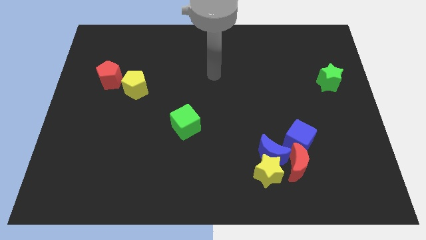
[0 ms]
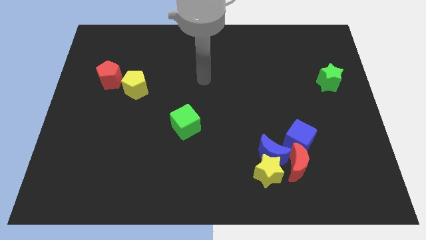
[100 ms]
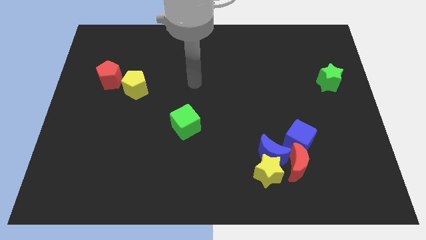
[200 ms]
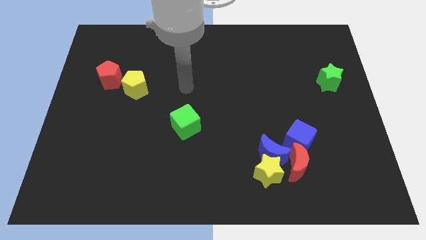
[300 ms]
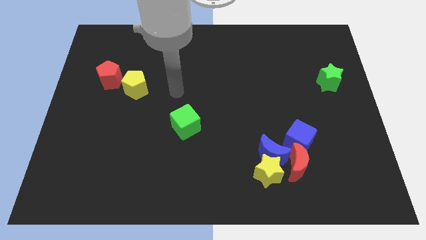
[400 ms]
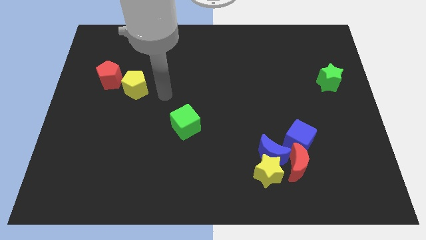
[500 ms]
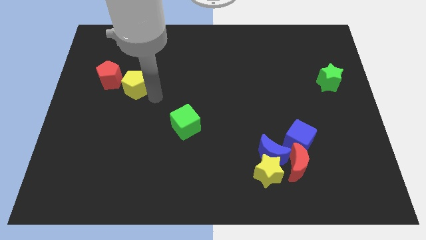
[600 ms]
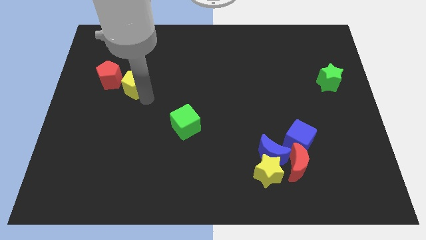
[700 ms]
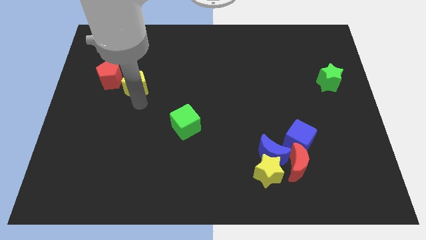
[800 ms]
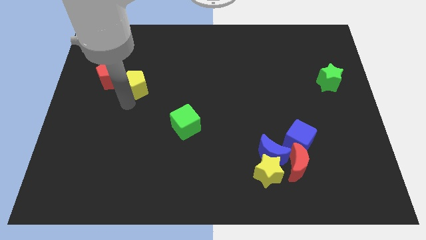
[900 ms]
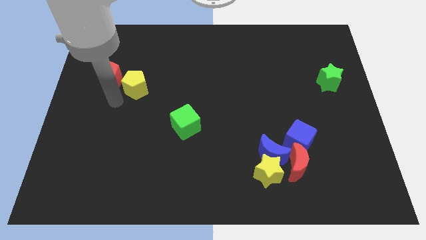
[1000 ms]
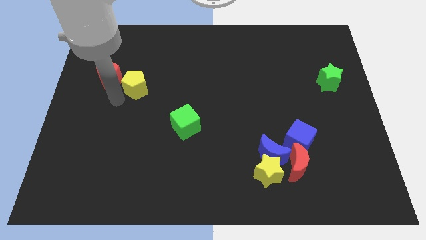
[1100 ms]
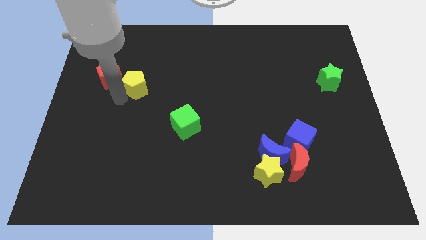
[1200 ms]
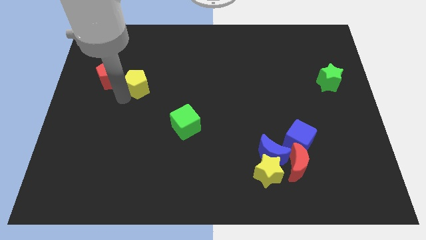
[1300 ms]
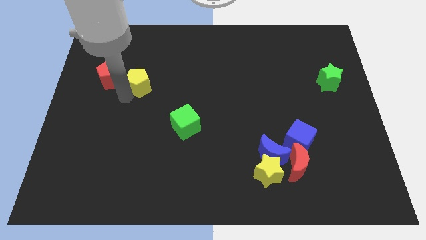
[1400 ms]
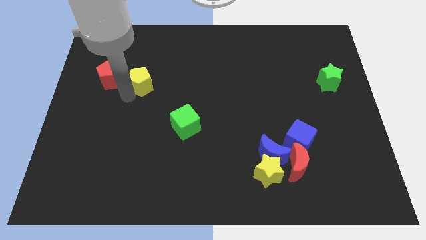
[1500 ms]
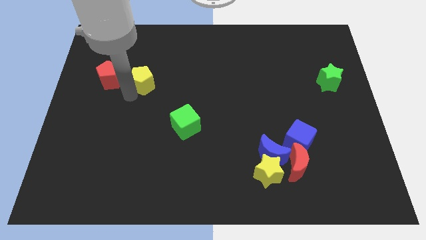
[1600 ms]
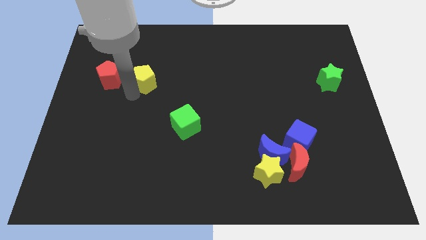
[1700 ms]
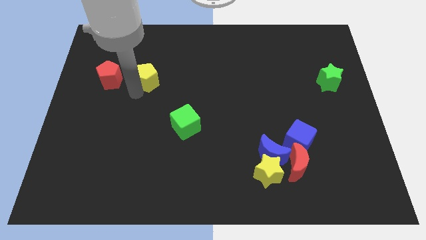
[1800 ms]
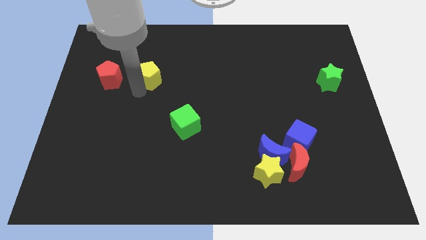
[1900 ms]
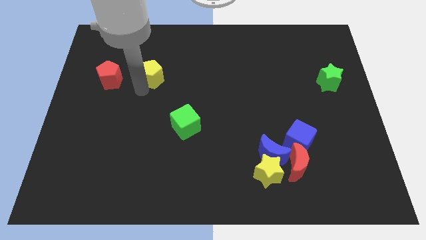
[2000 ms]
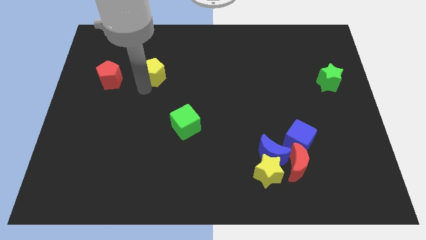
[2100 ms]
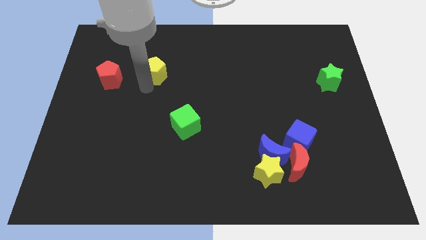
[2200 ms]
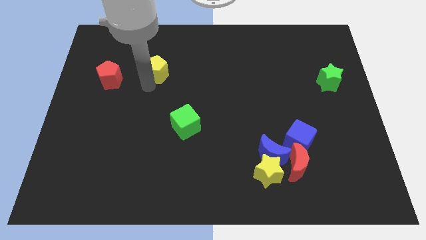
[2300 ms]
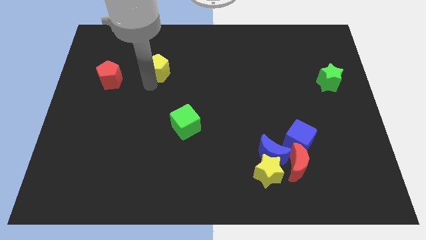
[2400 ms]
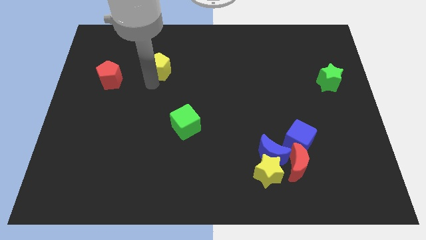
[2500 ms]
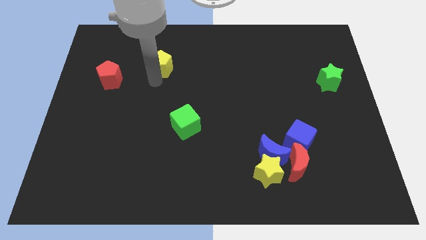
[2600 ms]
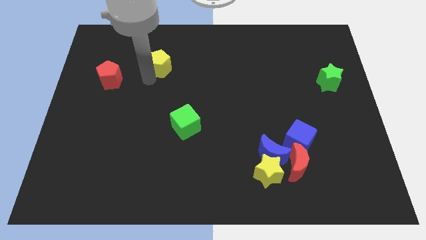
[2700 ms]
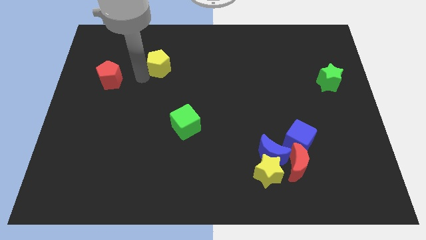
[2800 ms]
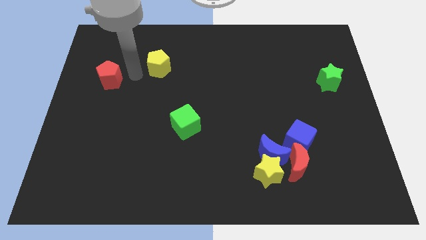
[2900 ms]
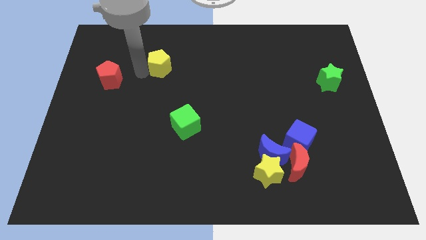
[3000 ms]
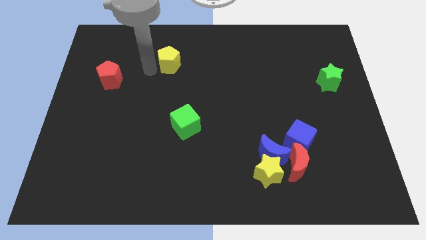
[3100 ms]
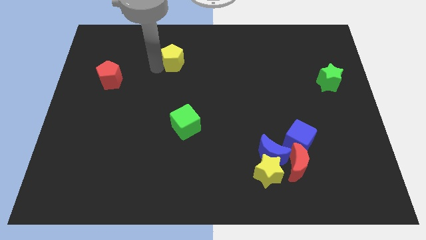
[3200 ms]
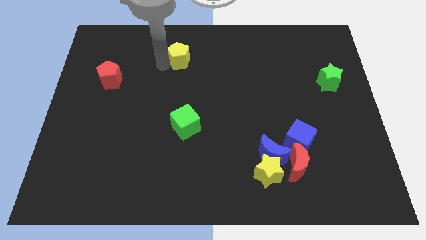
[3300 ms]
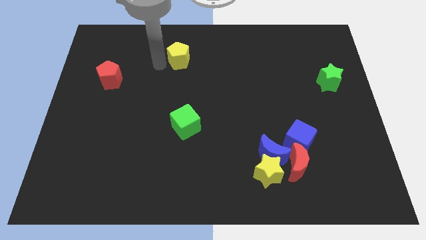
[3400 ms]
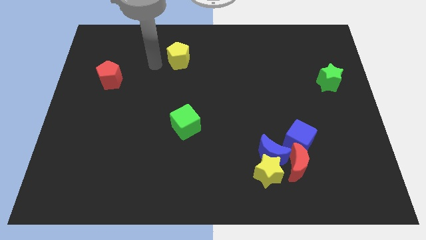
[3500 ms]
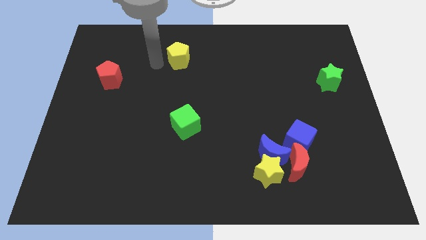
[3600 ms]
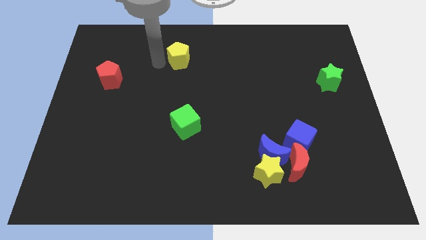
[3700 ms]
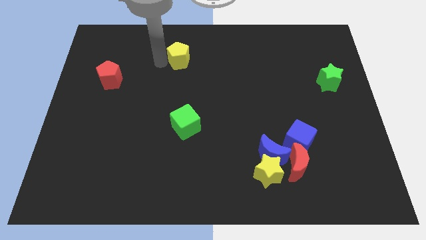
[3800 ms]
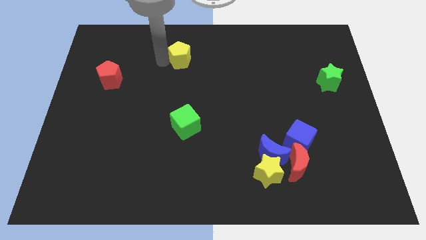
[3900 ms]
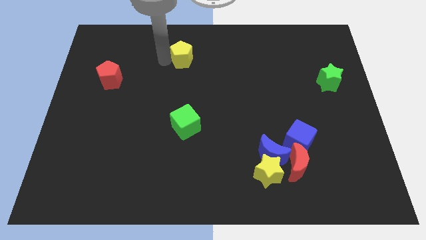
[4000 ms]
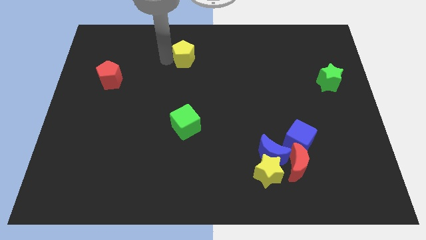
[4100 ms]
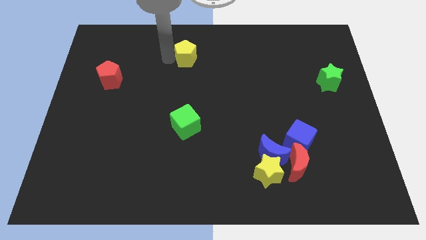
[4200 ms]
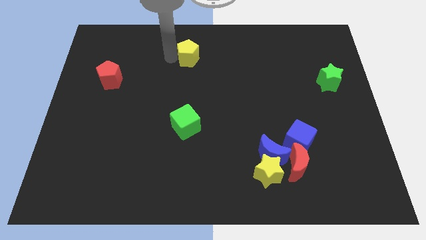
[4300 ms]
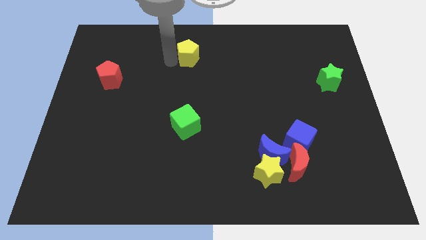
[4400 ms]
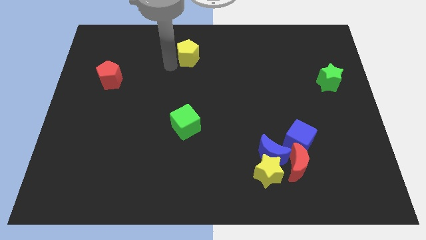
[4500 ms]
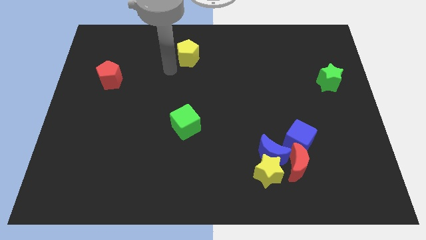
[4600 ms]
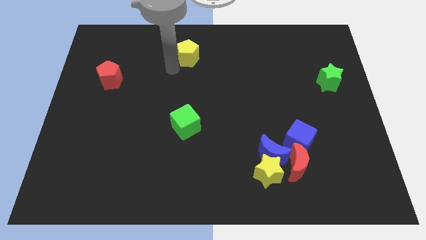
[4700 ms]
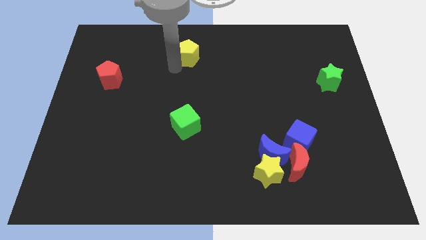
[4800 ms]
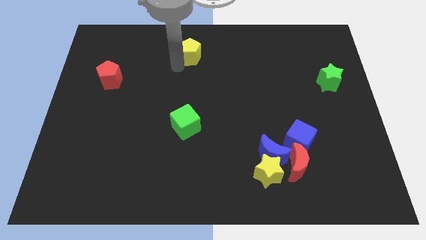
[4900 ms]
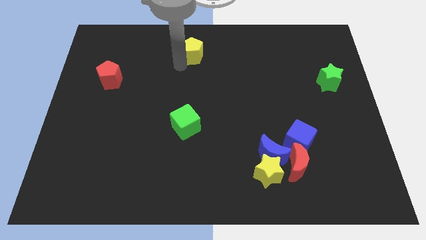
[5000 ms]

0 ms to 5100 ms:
slide the yellow pentagon to the top

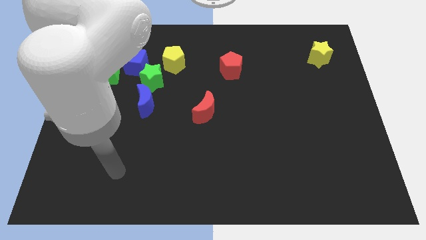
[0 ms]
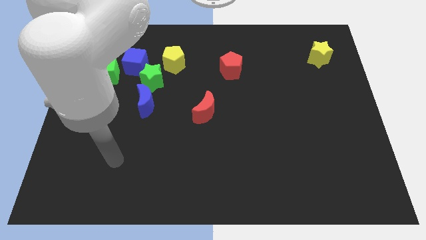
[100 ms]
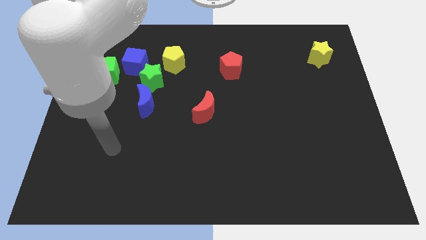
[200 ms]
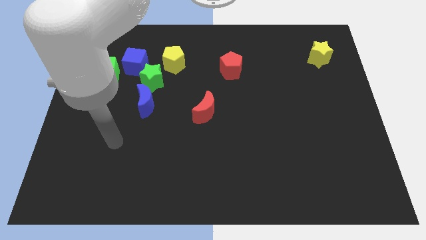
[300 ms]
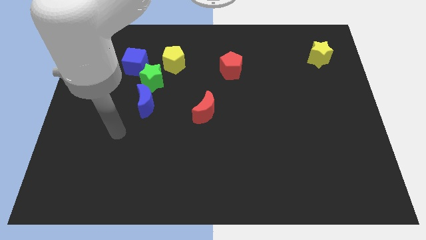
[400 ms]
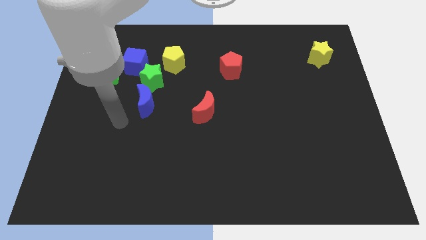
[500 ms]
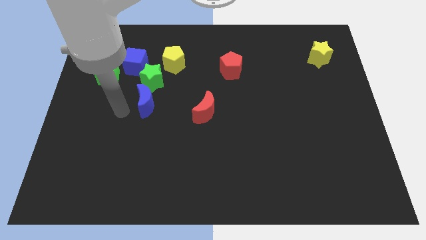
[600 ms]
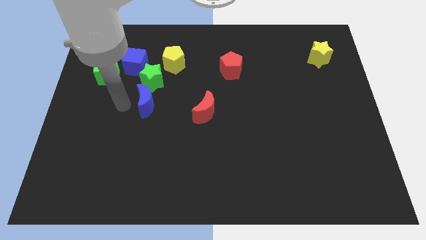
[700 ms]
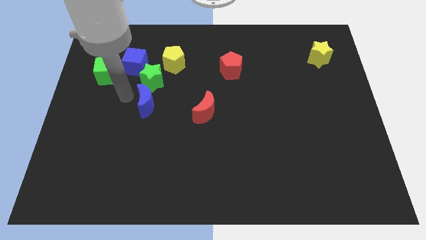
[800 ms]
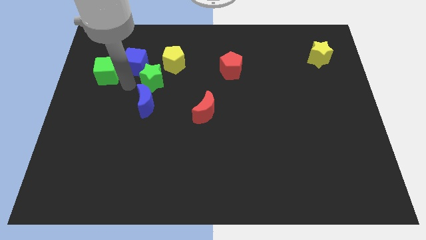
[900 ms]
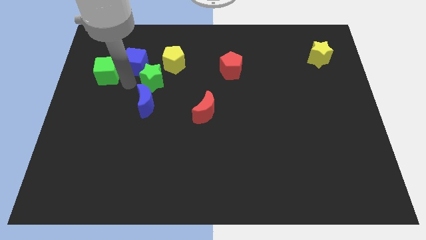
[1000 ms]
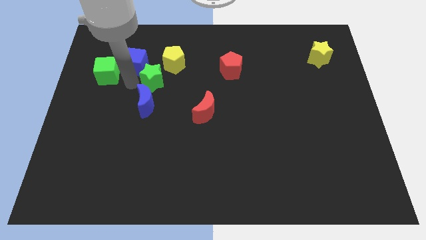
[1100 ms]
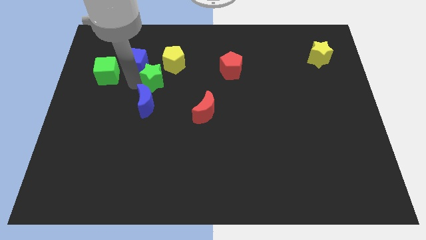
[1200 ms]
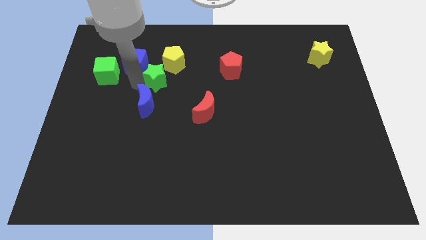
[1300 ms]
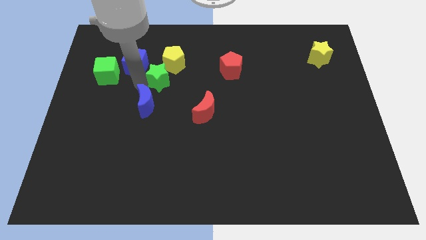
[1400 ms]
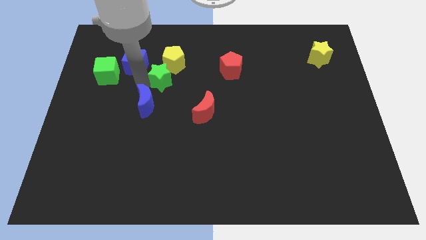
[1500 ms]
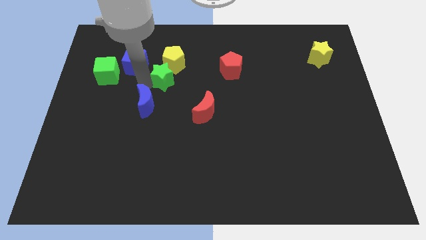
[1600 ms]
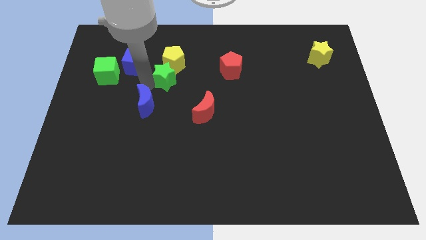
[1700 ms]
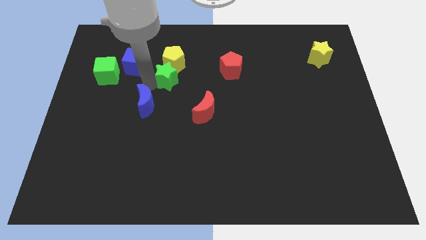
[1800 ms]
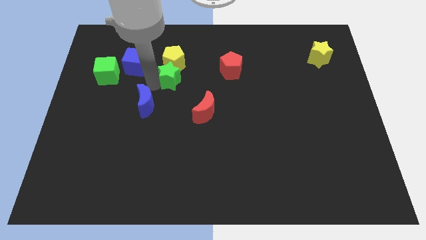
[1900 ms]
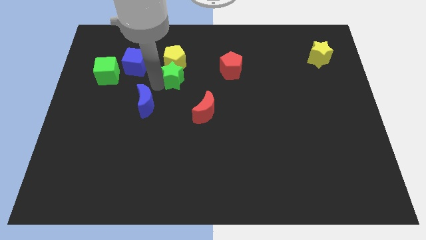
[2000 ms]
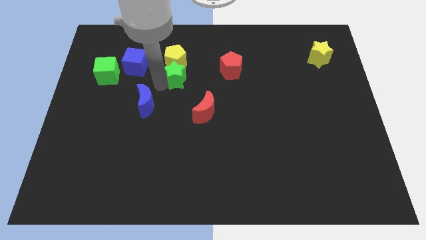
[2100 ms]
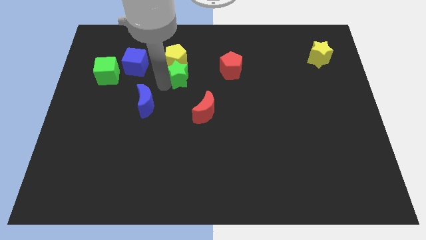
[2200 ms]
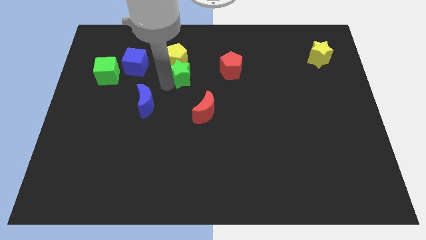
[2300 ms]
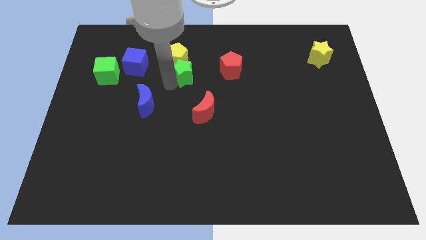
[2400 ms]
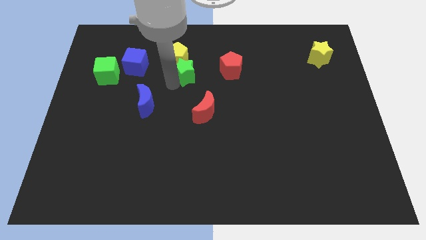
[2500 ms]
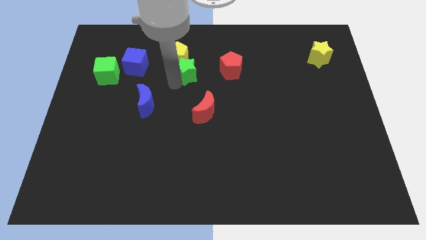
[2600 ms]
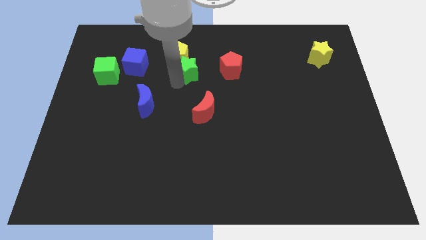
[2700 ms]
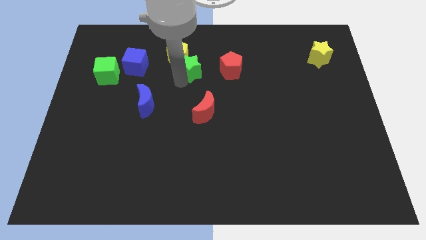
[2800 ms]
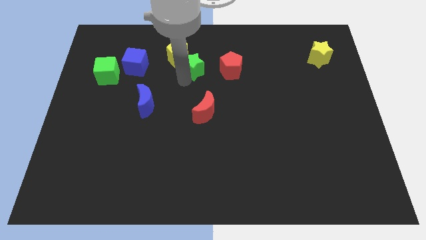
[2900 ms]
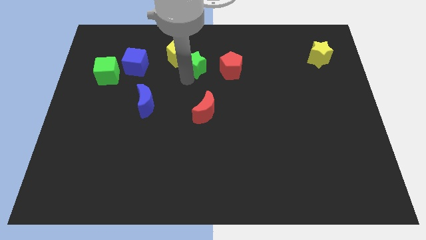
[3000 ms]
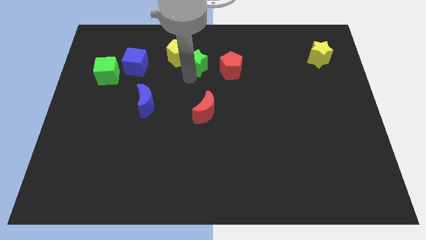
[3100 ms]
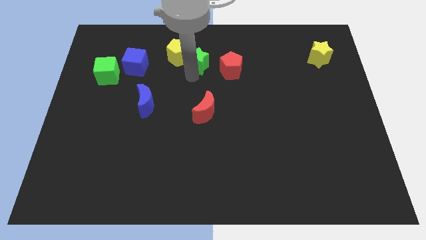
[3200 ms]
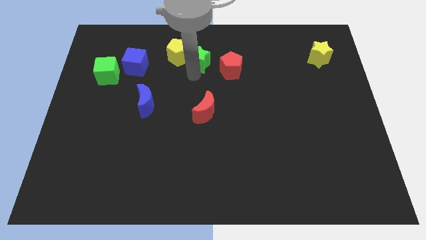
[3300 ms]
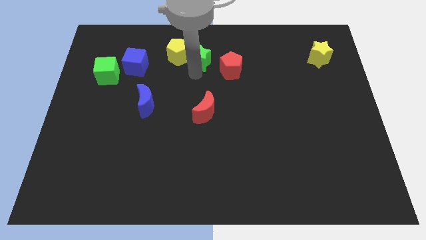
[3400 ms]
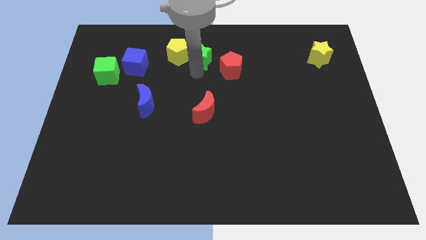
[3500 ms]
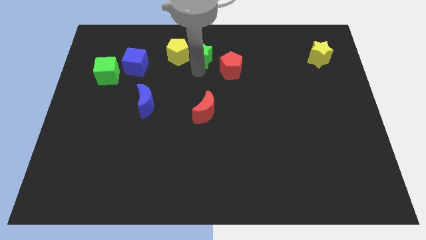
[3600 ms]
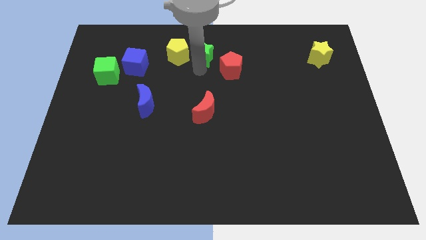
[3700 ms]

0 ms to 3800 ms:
slide the green star to the top side
